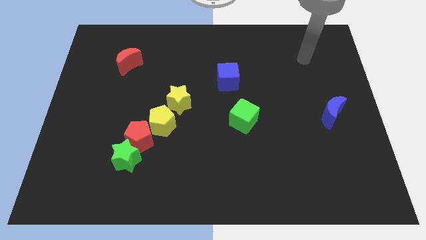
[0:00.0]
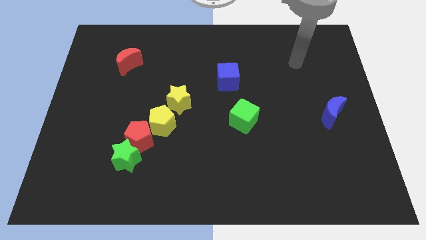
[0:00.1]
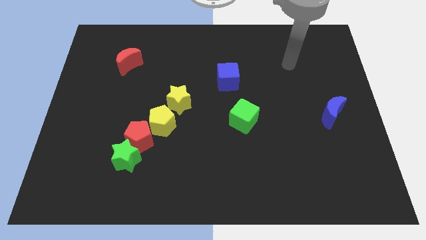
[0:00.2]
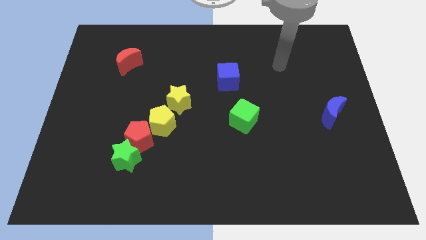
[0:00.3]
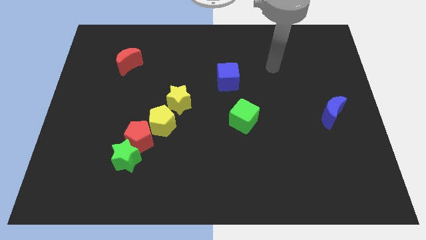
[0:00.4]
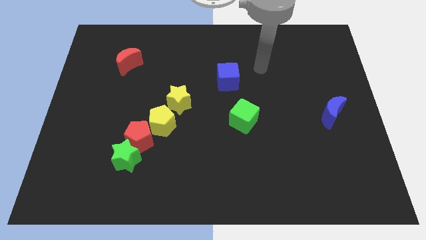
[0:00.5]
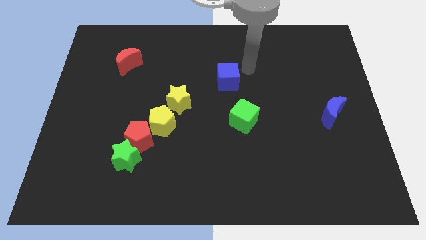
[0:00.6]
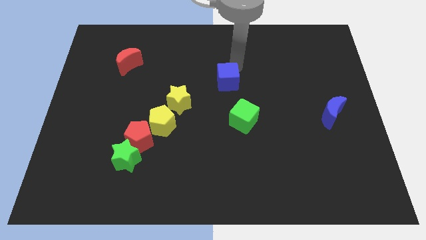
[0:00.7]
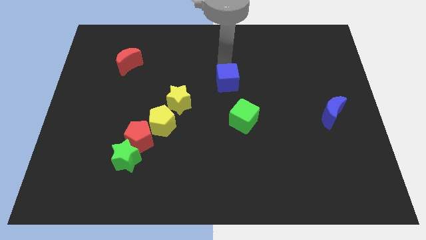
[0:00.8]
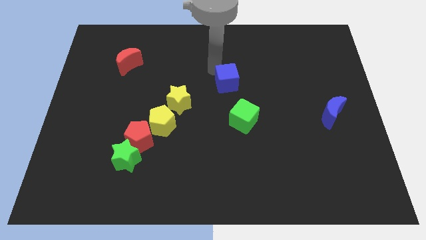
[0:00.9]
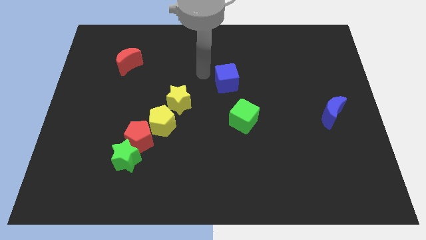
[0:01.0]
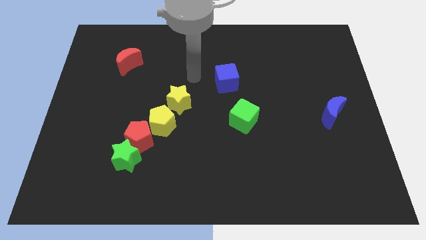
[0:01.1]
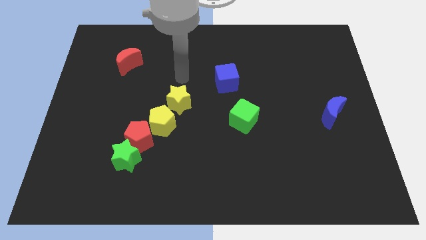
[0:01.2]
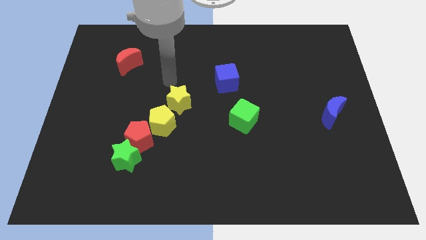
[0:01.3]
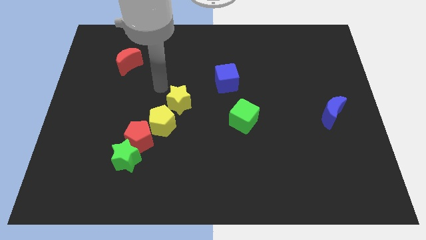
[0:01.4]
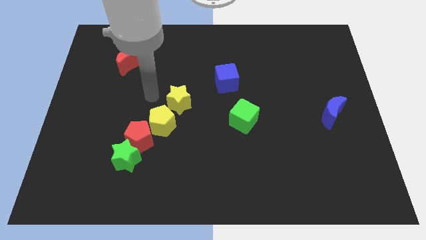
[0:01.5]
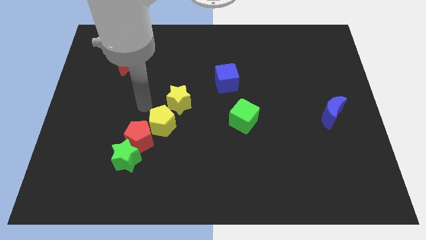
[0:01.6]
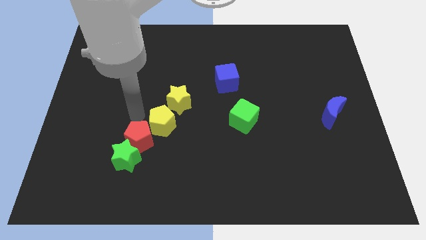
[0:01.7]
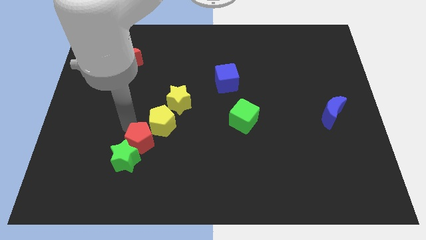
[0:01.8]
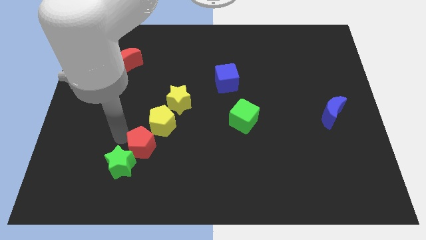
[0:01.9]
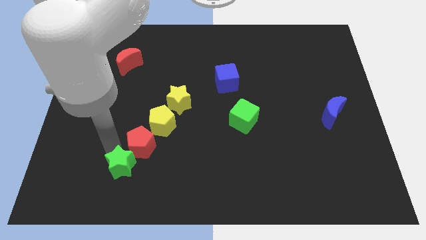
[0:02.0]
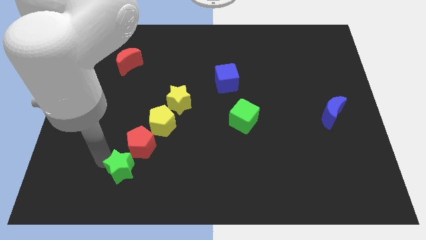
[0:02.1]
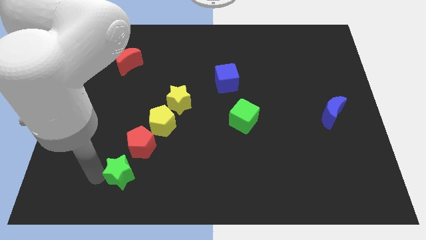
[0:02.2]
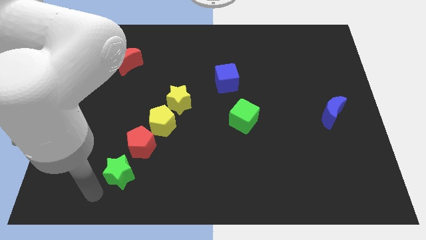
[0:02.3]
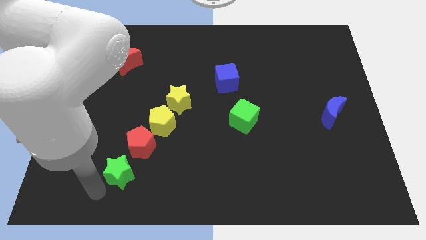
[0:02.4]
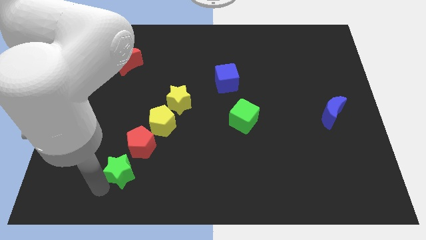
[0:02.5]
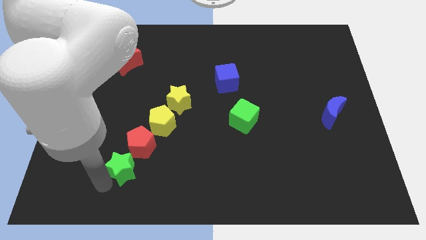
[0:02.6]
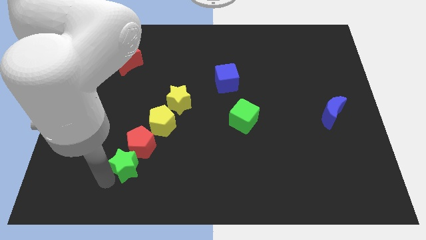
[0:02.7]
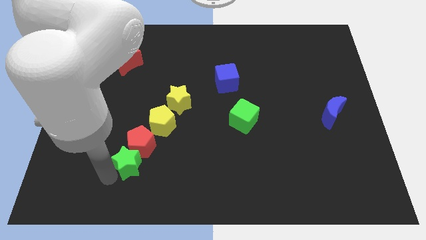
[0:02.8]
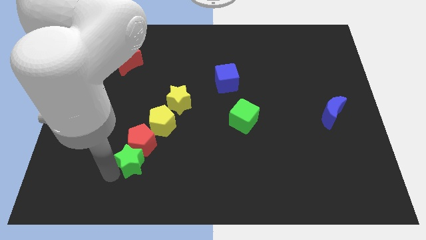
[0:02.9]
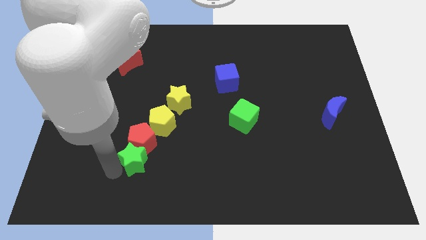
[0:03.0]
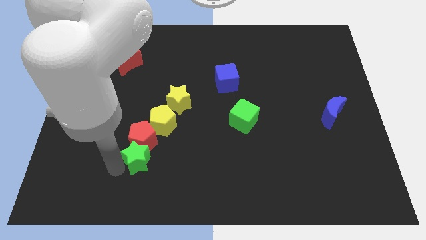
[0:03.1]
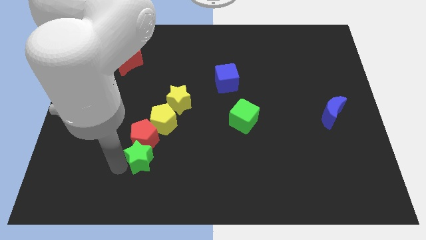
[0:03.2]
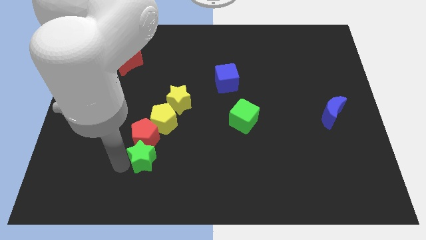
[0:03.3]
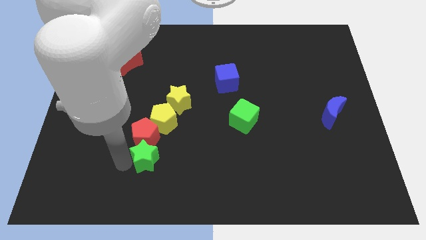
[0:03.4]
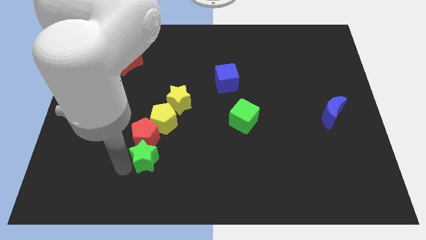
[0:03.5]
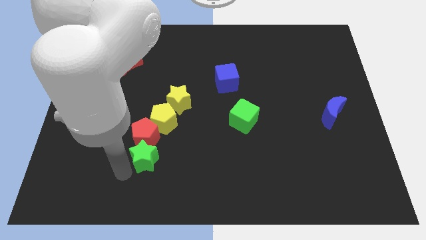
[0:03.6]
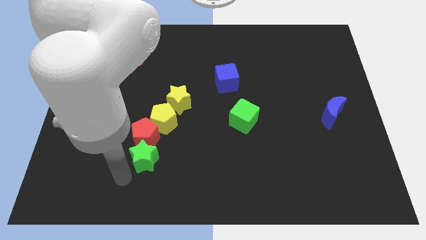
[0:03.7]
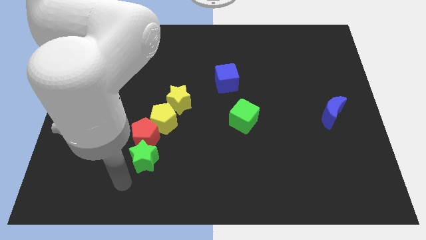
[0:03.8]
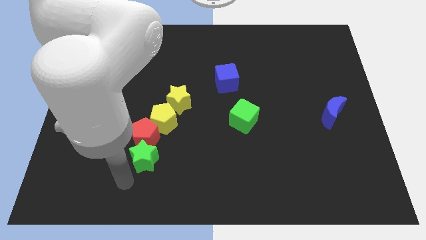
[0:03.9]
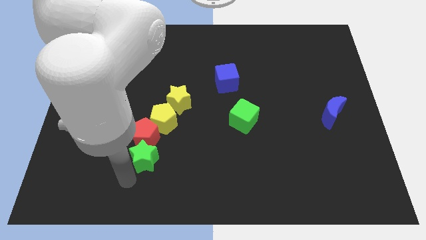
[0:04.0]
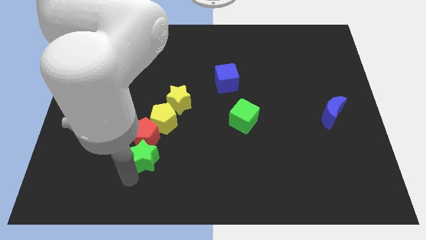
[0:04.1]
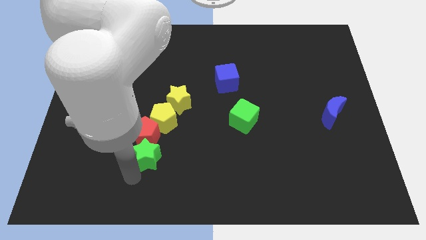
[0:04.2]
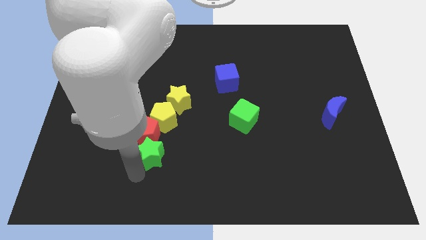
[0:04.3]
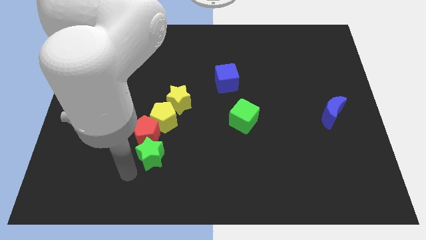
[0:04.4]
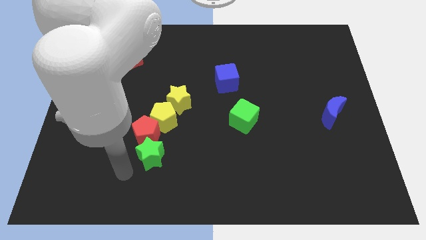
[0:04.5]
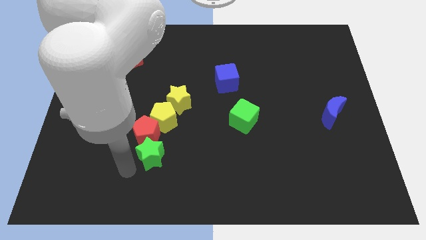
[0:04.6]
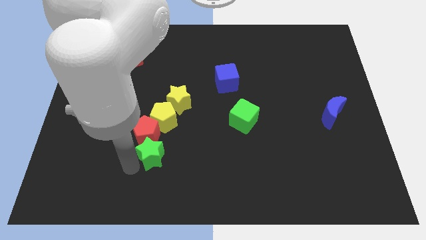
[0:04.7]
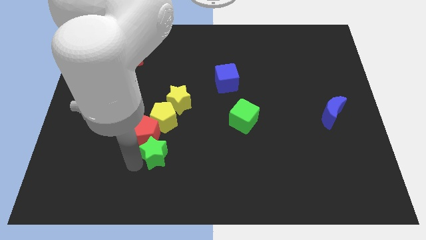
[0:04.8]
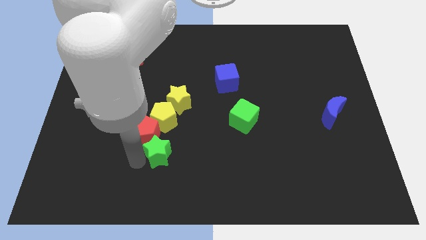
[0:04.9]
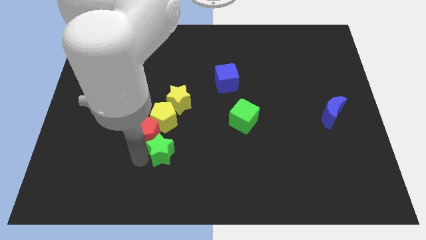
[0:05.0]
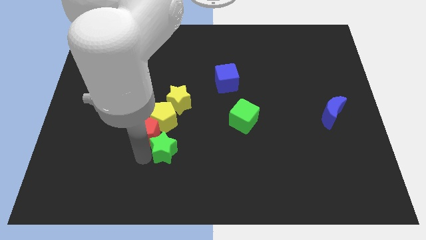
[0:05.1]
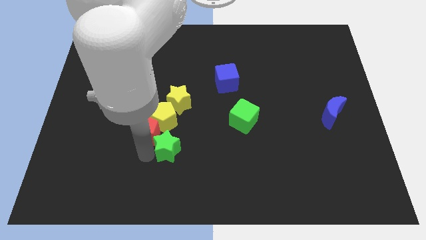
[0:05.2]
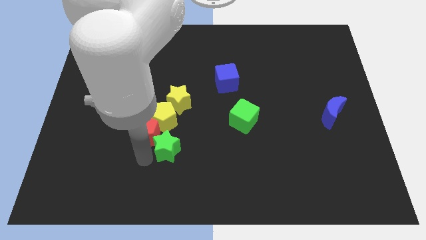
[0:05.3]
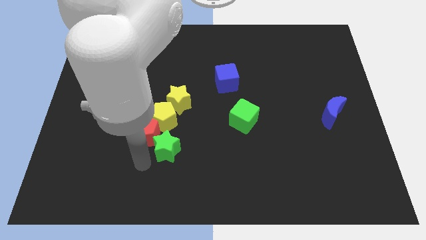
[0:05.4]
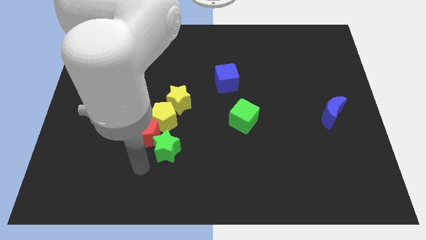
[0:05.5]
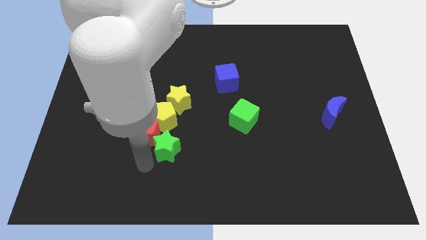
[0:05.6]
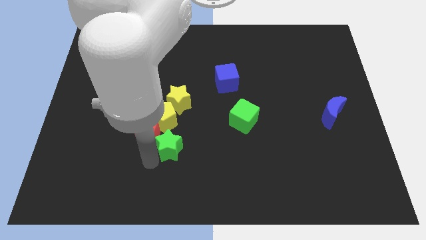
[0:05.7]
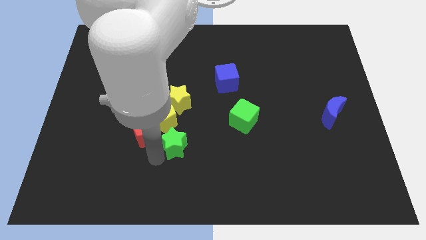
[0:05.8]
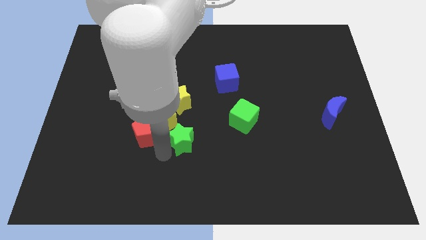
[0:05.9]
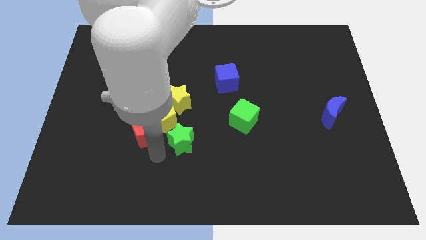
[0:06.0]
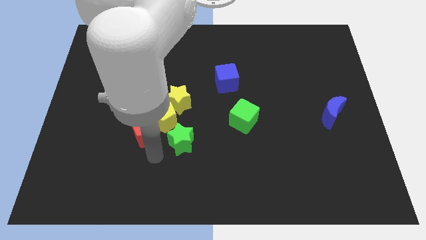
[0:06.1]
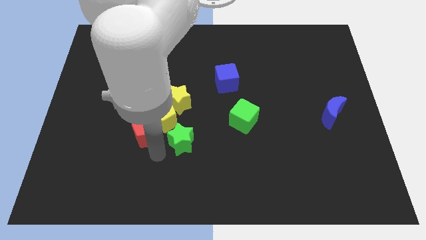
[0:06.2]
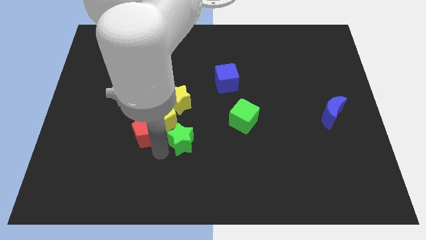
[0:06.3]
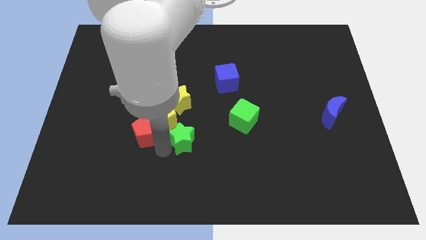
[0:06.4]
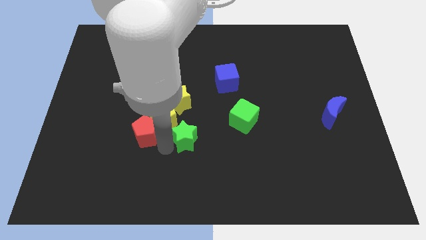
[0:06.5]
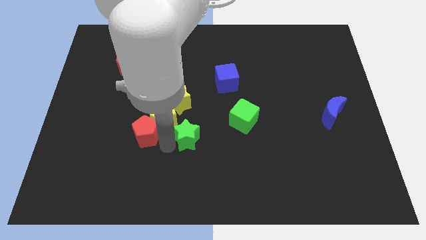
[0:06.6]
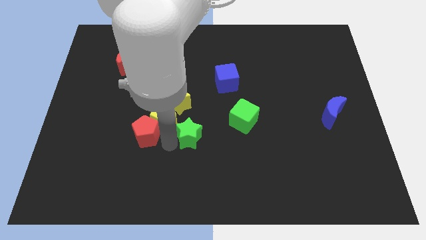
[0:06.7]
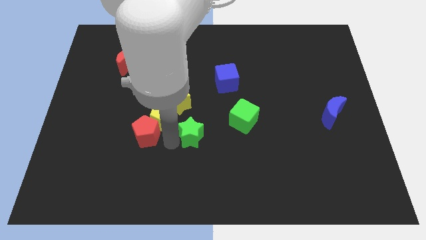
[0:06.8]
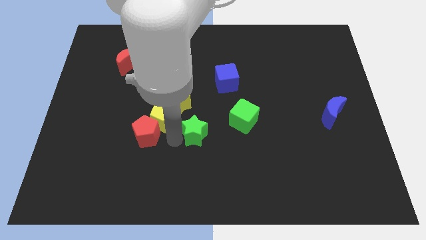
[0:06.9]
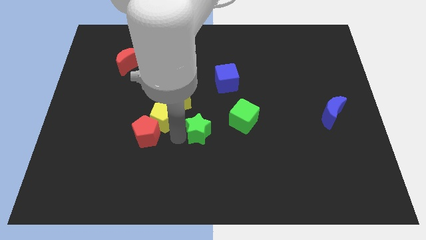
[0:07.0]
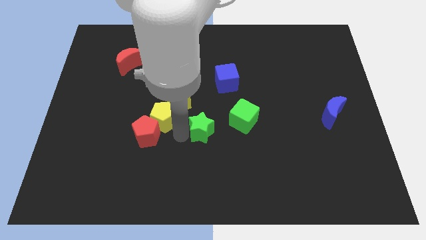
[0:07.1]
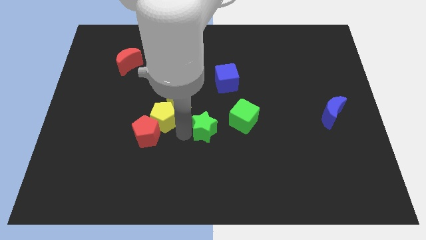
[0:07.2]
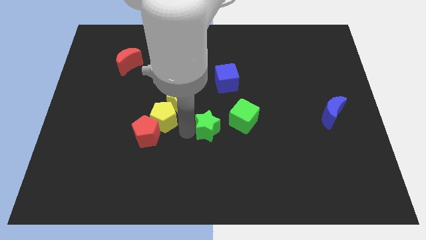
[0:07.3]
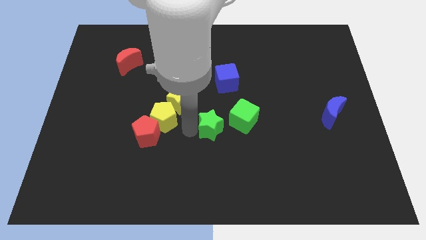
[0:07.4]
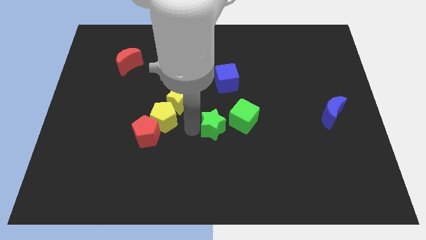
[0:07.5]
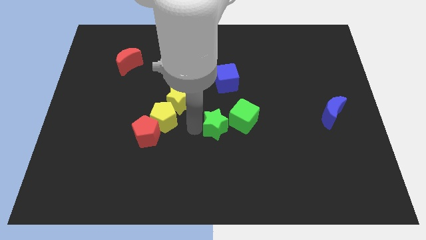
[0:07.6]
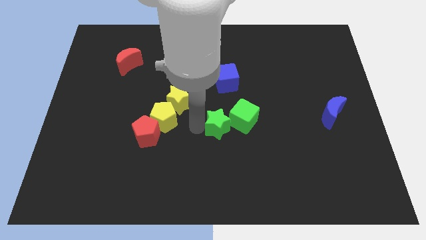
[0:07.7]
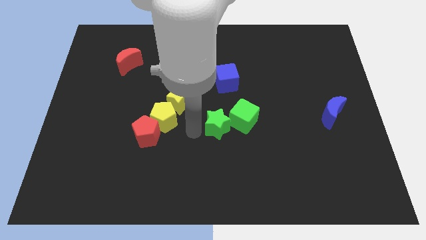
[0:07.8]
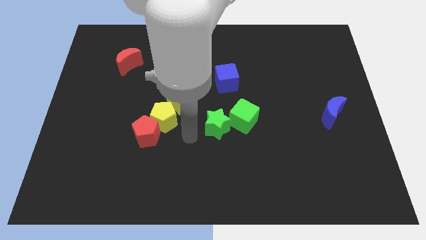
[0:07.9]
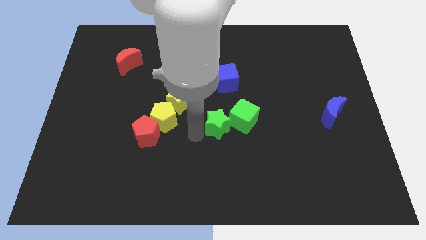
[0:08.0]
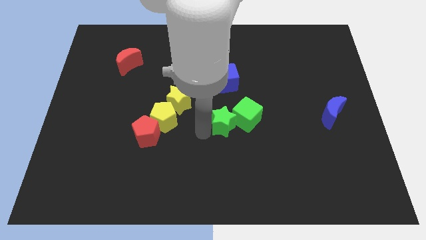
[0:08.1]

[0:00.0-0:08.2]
slide the green star close to the green cube
